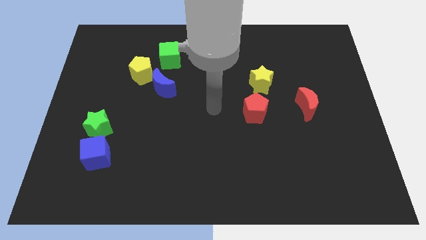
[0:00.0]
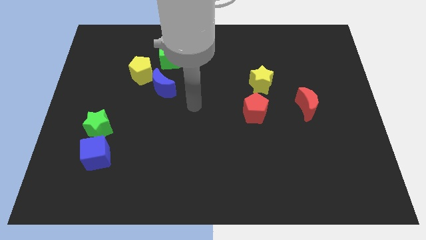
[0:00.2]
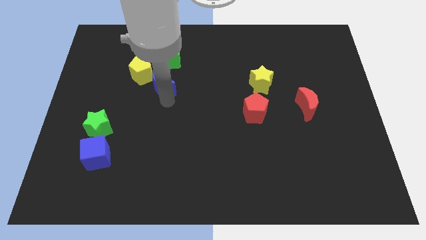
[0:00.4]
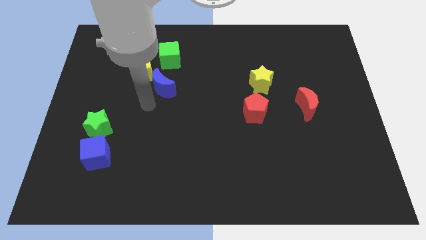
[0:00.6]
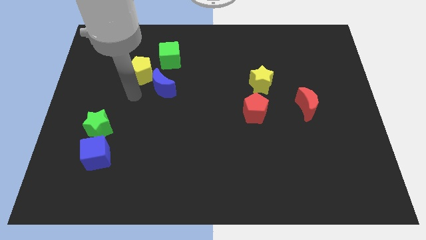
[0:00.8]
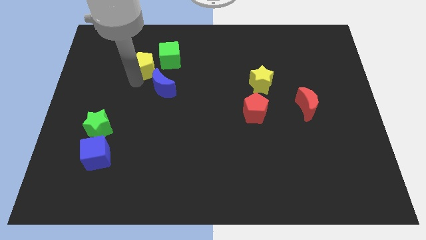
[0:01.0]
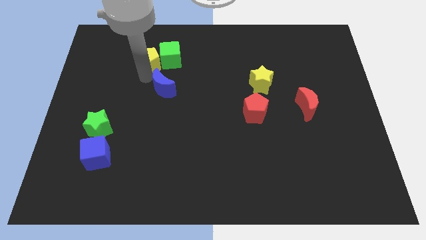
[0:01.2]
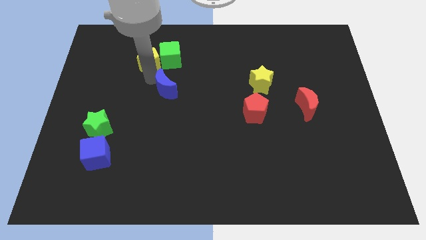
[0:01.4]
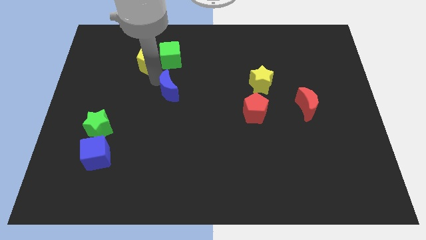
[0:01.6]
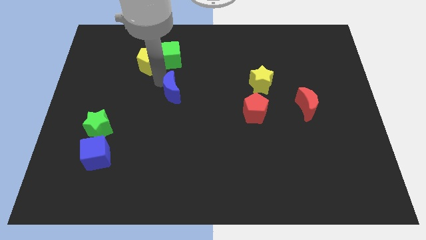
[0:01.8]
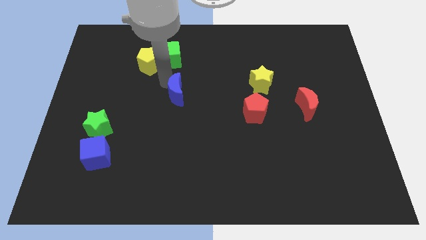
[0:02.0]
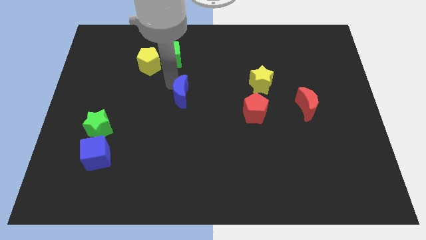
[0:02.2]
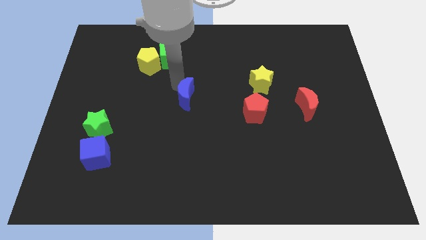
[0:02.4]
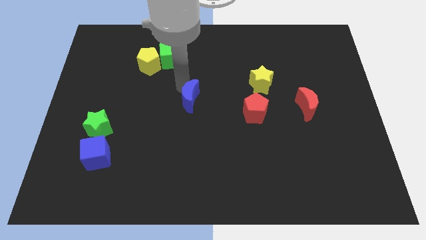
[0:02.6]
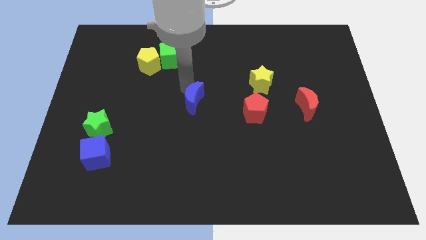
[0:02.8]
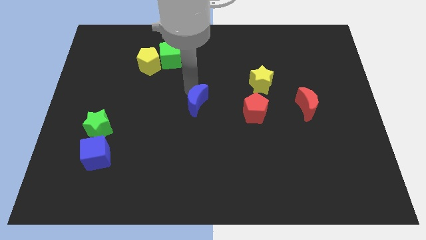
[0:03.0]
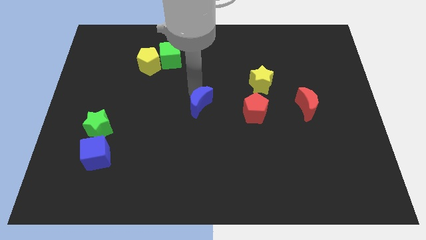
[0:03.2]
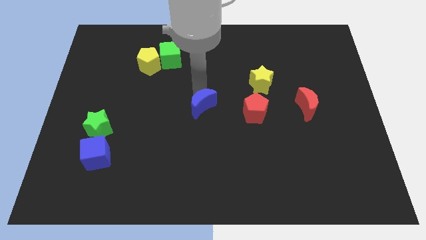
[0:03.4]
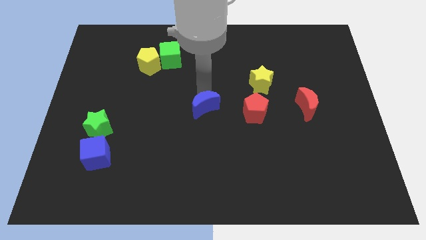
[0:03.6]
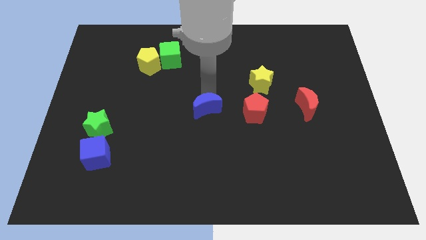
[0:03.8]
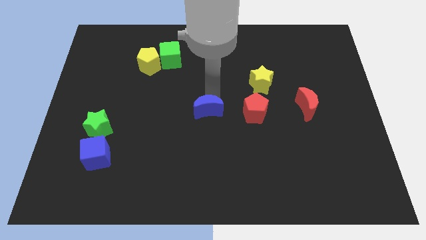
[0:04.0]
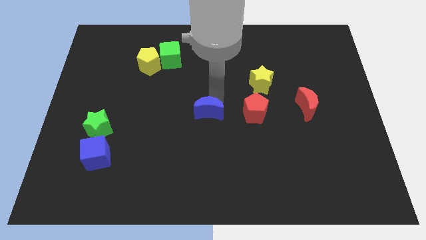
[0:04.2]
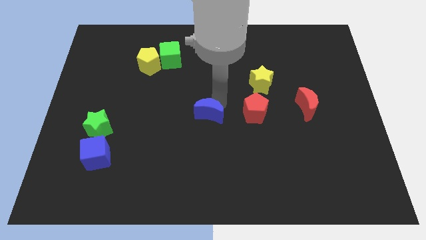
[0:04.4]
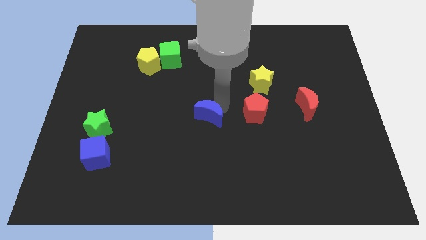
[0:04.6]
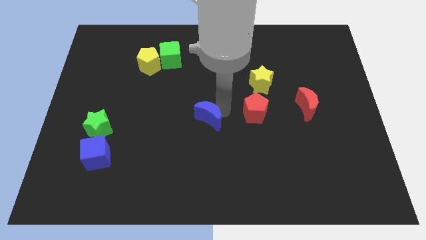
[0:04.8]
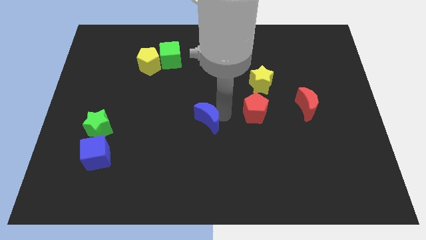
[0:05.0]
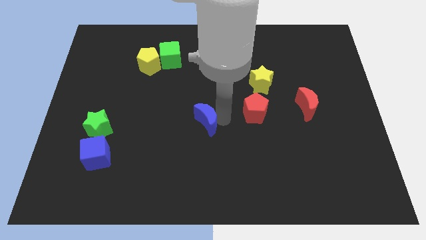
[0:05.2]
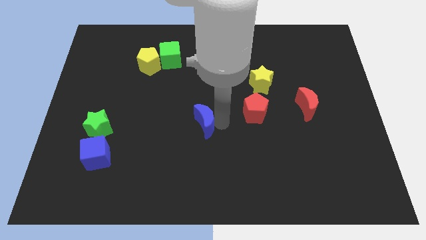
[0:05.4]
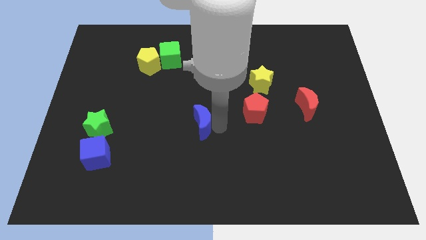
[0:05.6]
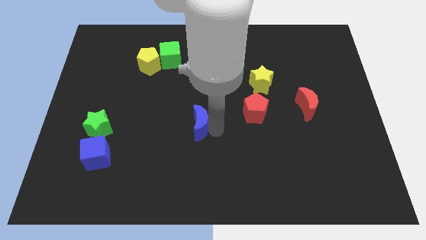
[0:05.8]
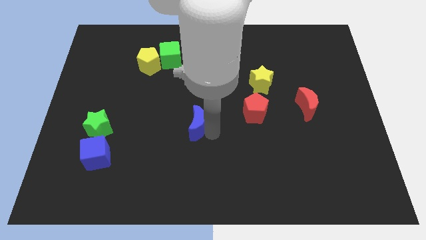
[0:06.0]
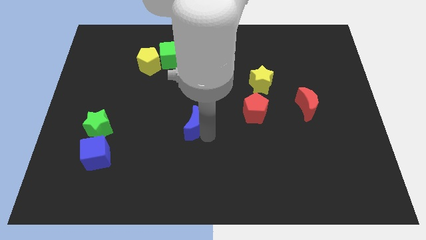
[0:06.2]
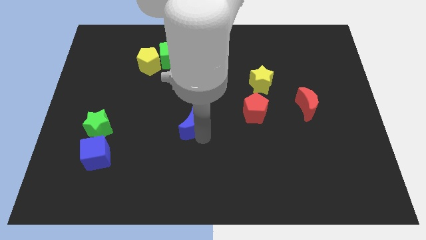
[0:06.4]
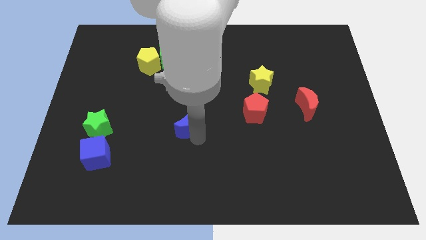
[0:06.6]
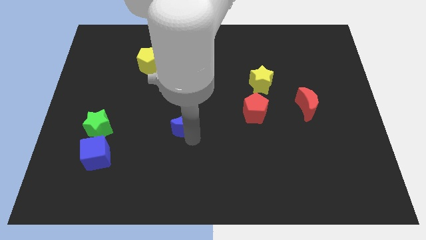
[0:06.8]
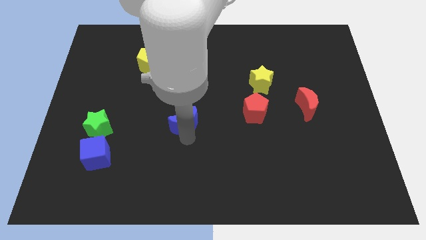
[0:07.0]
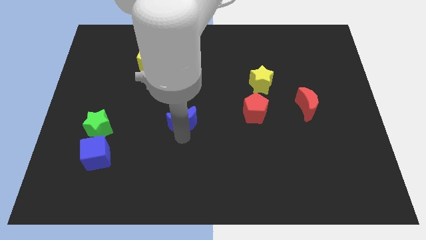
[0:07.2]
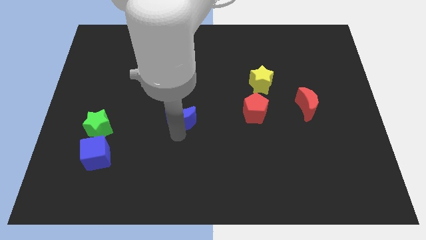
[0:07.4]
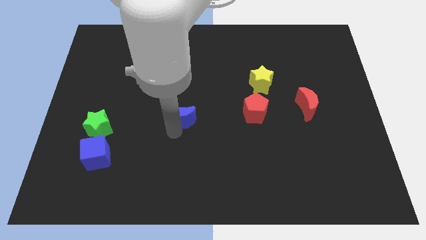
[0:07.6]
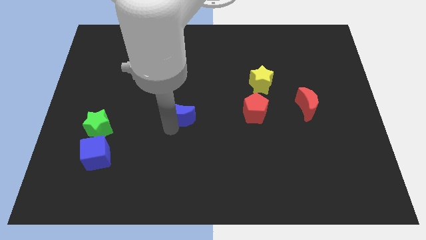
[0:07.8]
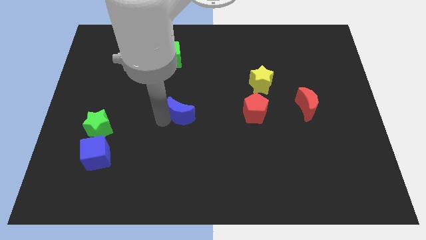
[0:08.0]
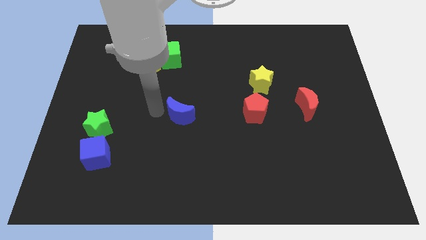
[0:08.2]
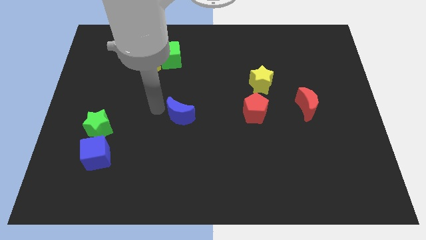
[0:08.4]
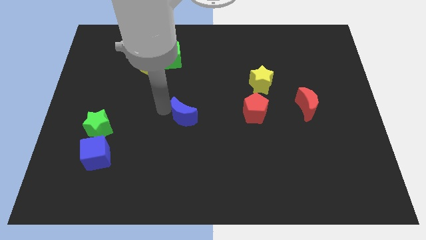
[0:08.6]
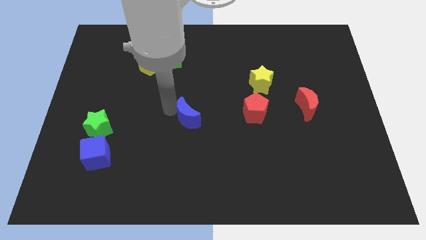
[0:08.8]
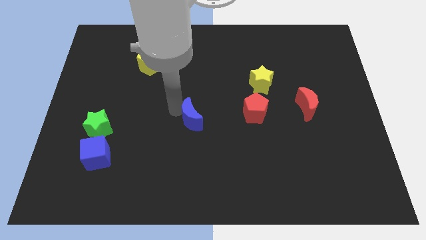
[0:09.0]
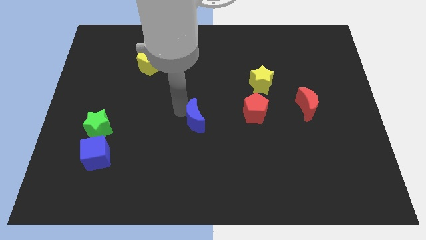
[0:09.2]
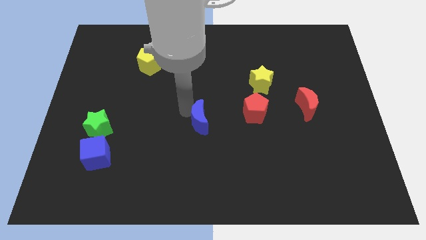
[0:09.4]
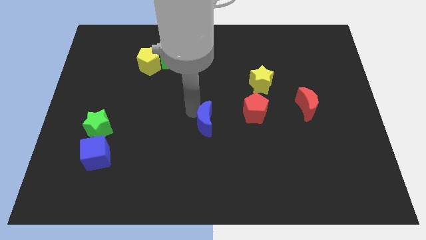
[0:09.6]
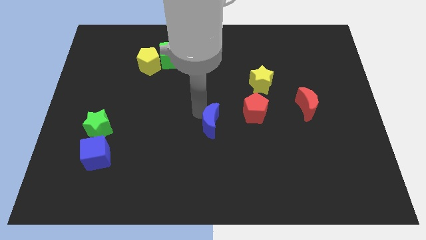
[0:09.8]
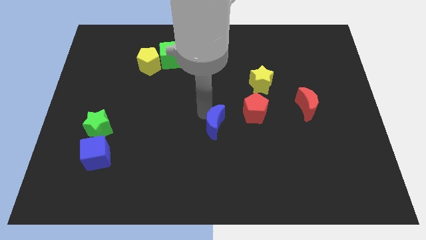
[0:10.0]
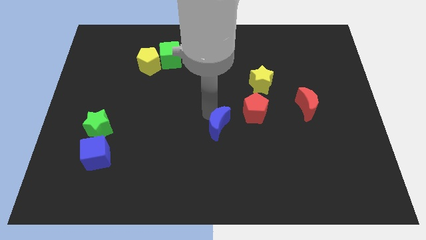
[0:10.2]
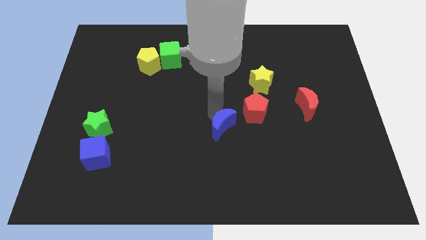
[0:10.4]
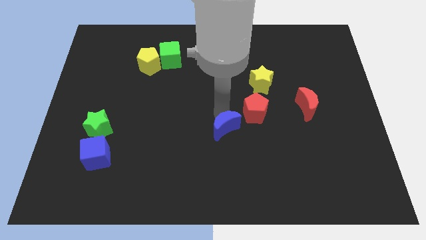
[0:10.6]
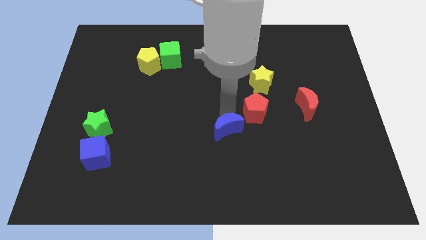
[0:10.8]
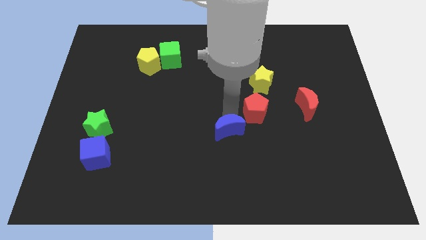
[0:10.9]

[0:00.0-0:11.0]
move the blue moon downwards and then to the right

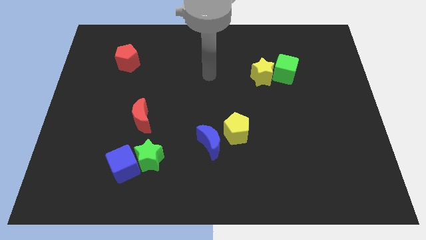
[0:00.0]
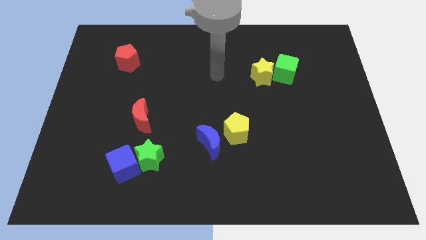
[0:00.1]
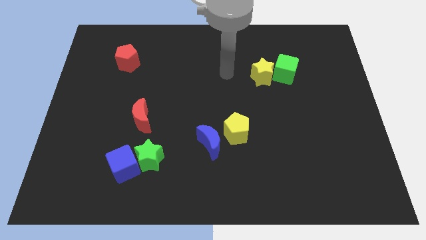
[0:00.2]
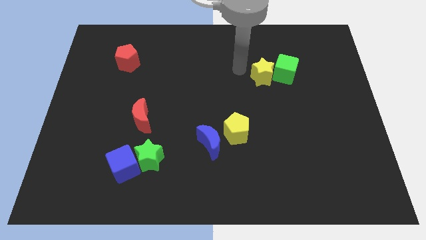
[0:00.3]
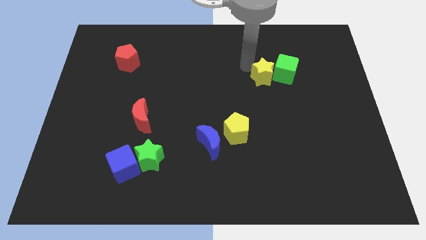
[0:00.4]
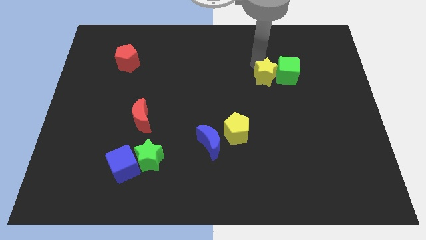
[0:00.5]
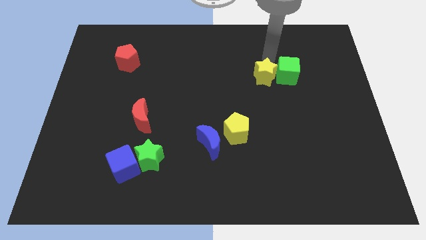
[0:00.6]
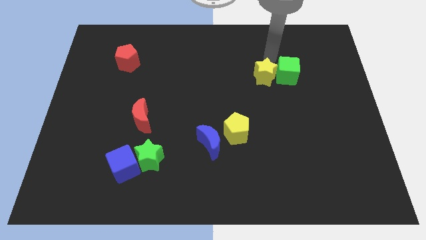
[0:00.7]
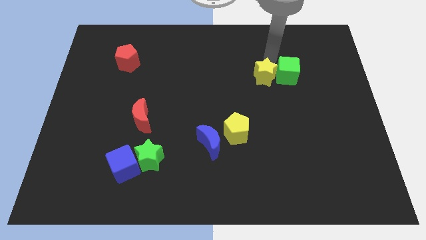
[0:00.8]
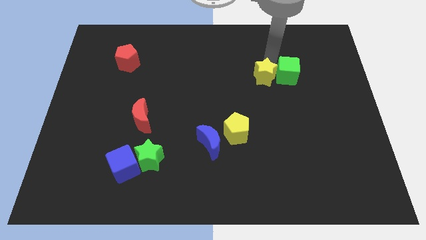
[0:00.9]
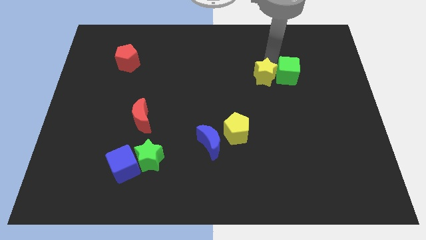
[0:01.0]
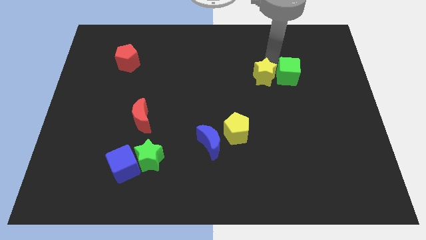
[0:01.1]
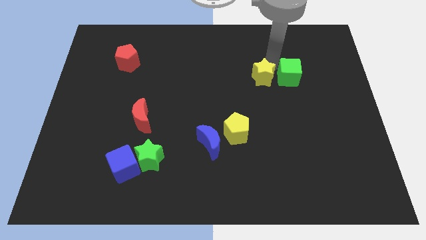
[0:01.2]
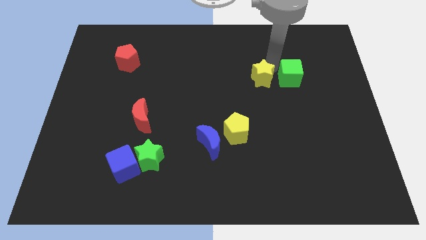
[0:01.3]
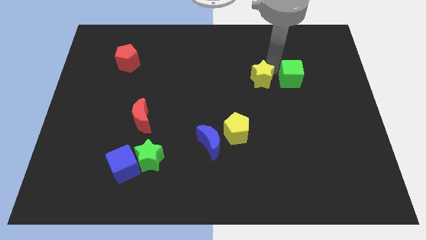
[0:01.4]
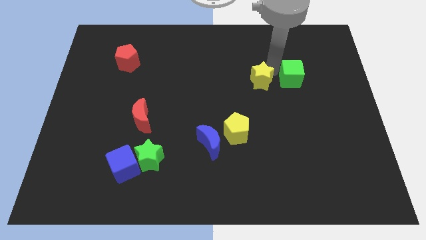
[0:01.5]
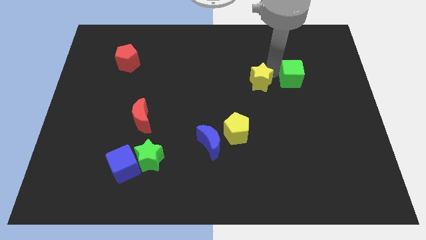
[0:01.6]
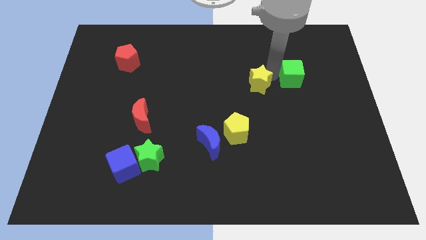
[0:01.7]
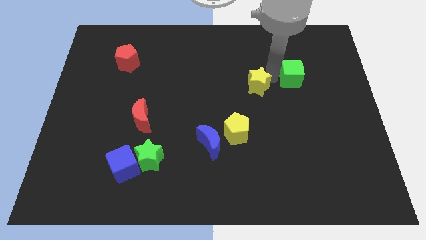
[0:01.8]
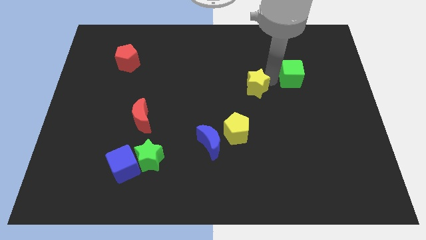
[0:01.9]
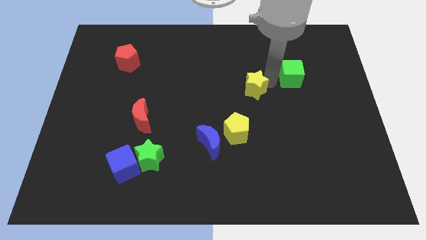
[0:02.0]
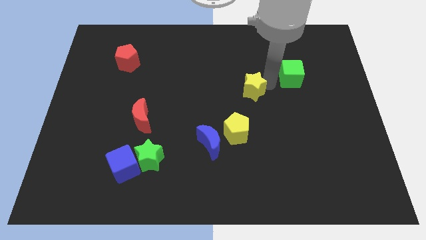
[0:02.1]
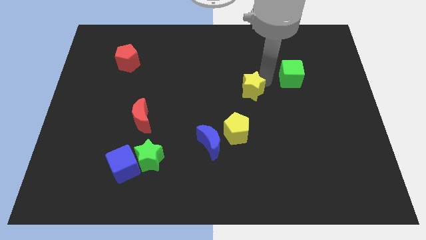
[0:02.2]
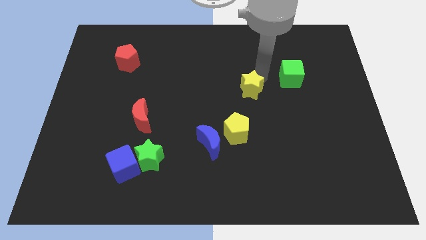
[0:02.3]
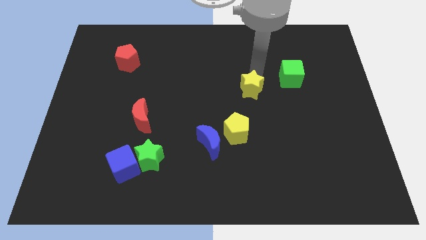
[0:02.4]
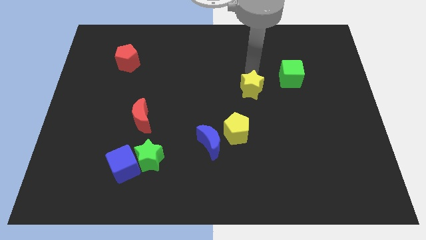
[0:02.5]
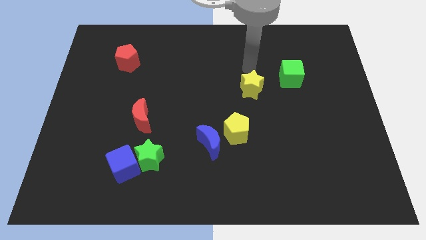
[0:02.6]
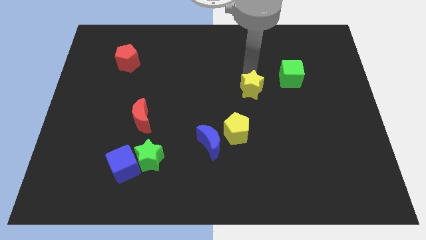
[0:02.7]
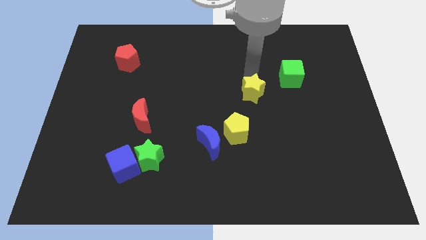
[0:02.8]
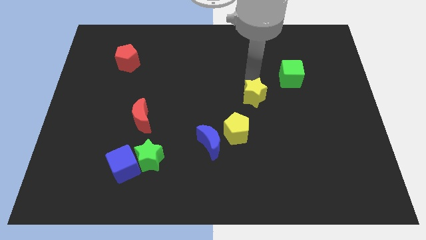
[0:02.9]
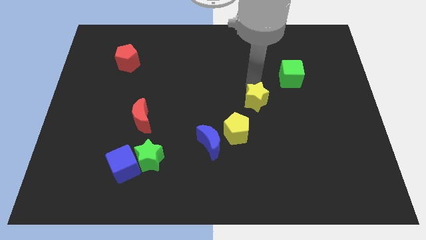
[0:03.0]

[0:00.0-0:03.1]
slightly push the yellow star down
